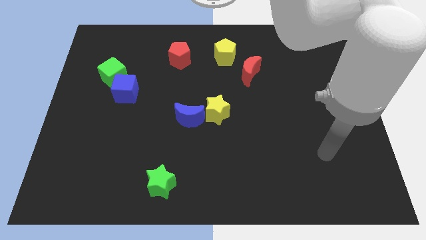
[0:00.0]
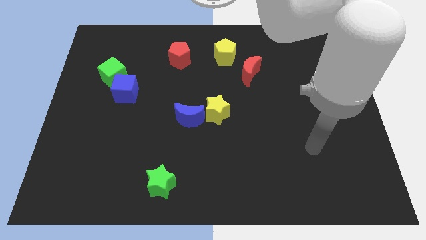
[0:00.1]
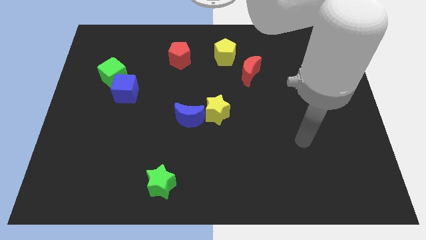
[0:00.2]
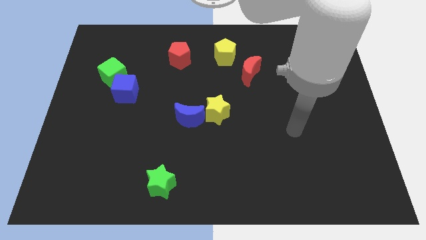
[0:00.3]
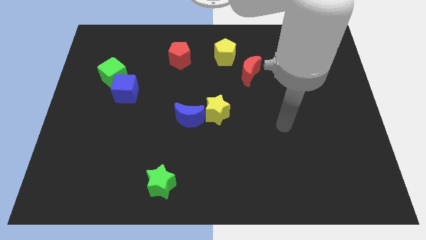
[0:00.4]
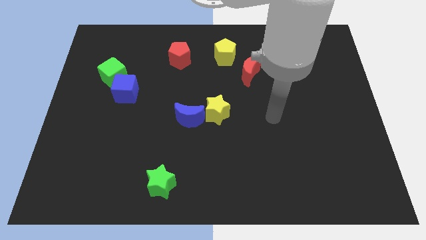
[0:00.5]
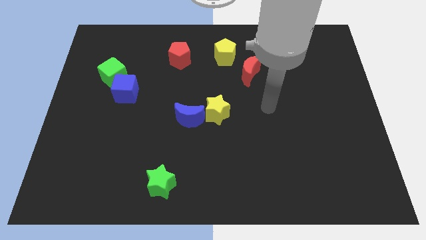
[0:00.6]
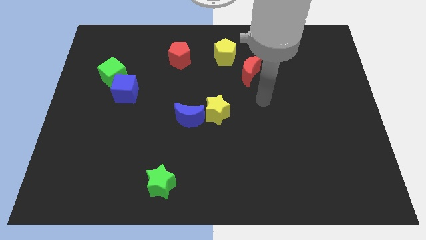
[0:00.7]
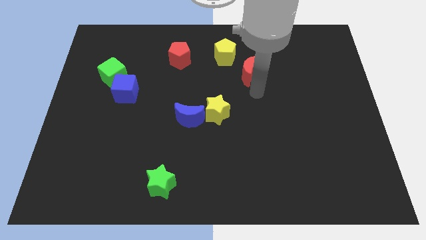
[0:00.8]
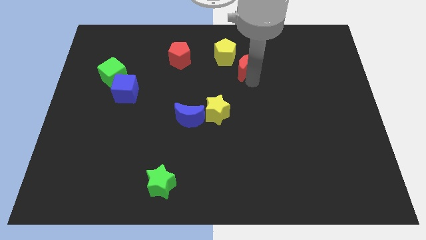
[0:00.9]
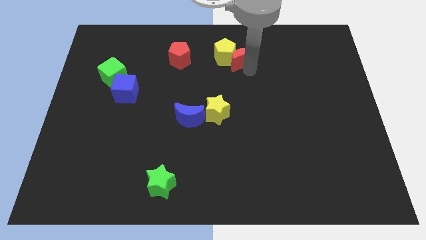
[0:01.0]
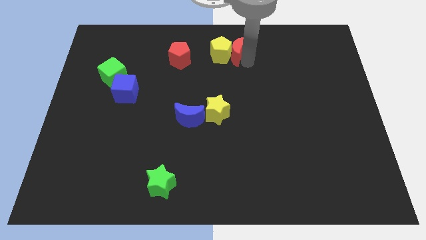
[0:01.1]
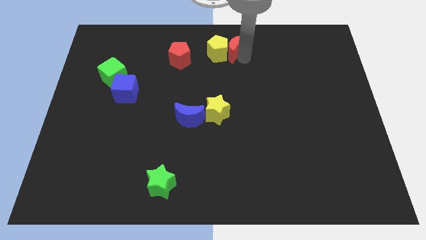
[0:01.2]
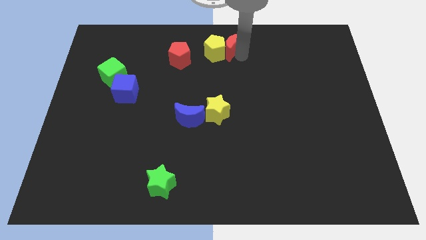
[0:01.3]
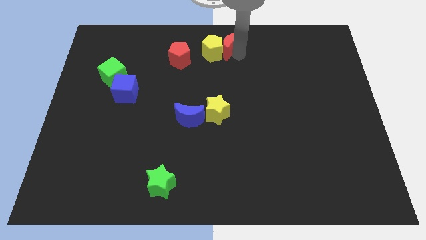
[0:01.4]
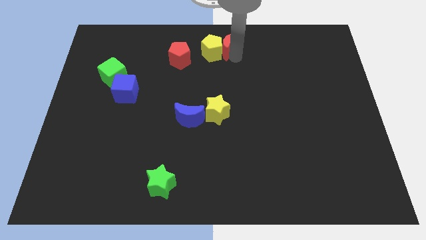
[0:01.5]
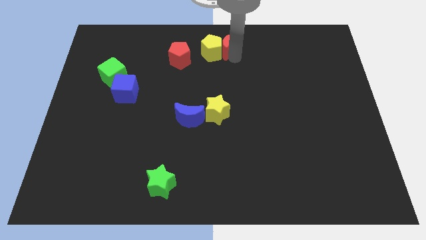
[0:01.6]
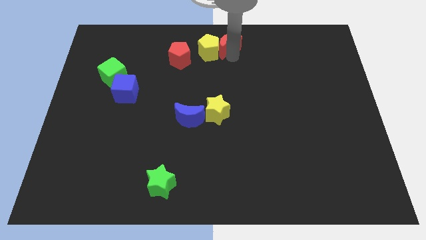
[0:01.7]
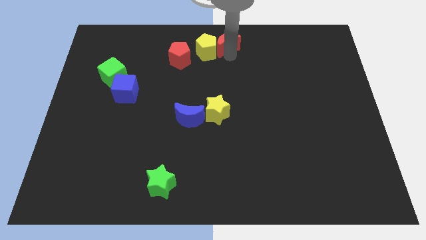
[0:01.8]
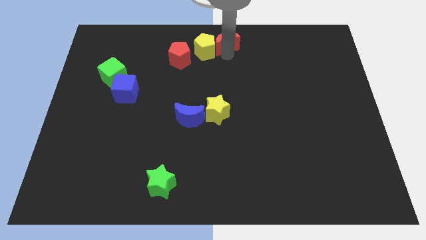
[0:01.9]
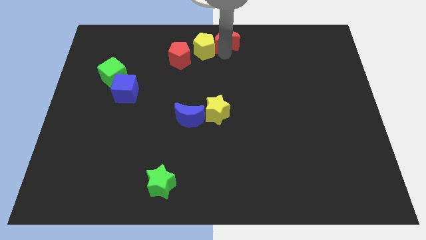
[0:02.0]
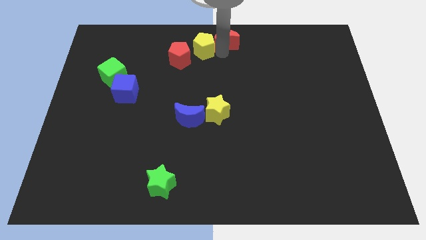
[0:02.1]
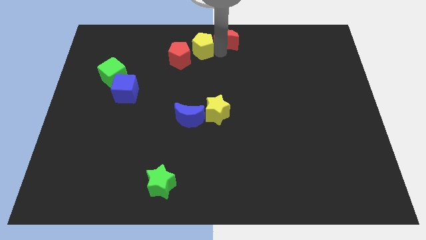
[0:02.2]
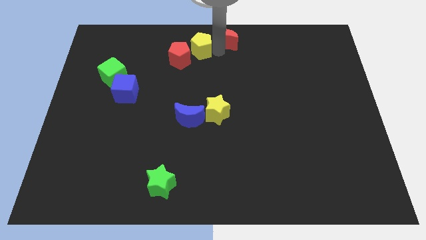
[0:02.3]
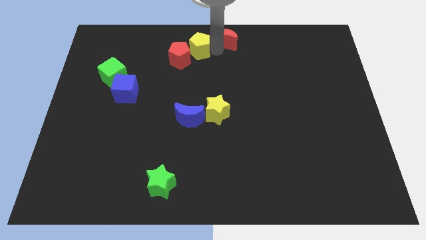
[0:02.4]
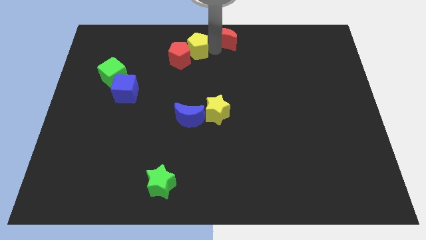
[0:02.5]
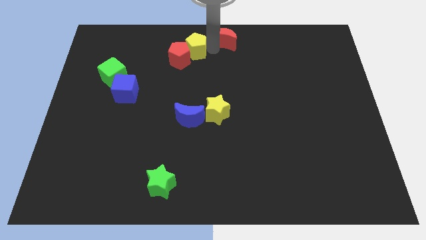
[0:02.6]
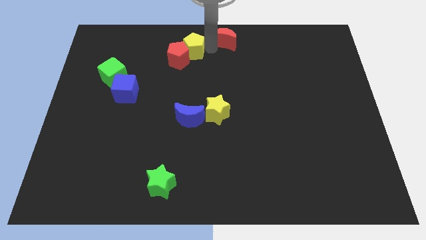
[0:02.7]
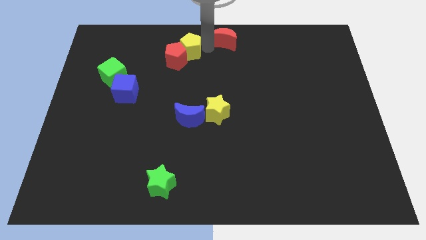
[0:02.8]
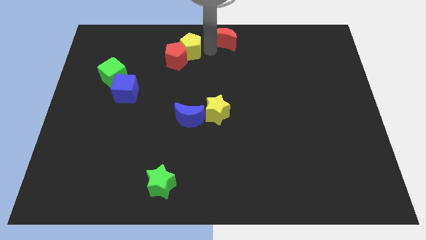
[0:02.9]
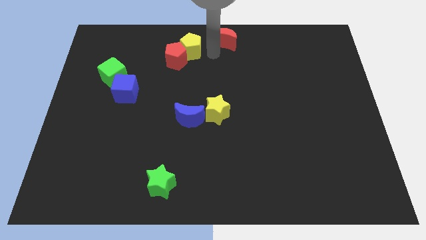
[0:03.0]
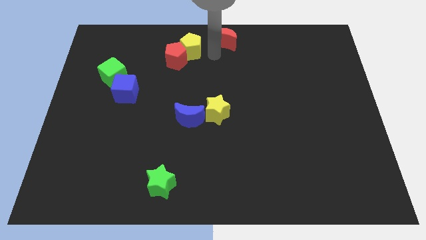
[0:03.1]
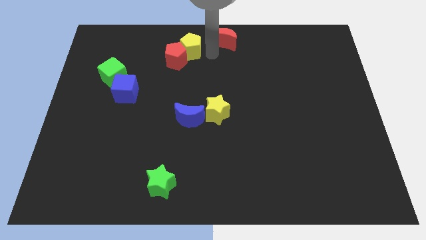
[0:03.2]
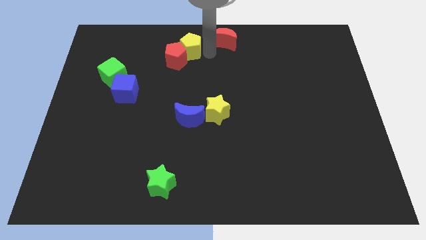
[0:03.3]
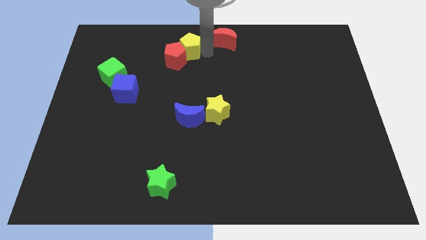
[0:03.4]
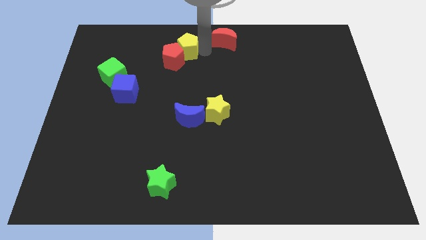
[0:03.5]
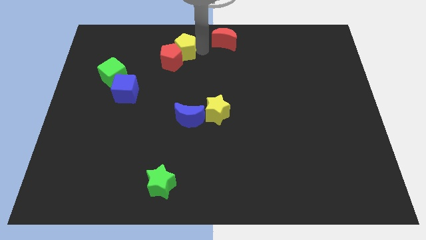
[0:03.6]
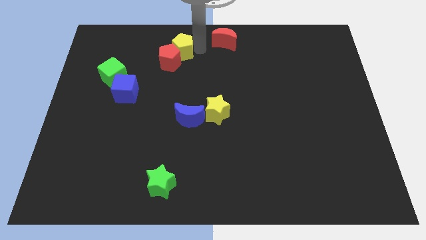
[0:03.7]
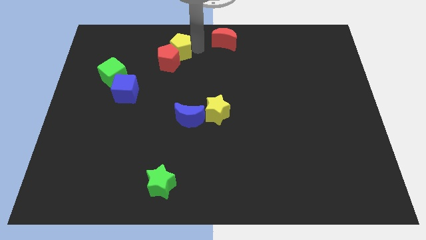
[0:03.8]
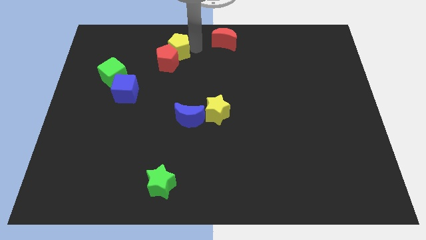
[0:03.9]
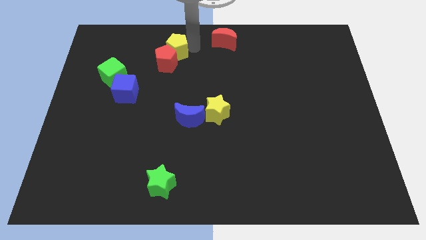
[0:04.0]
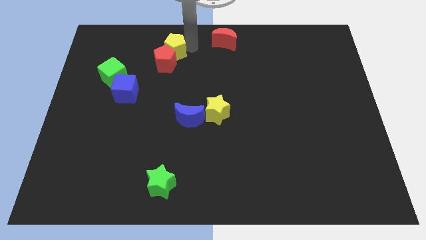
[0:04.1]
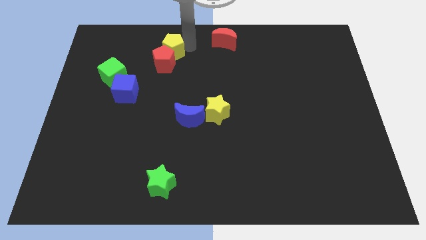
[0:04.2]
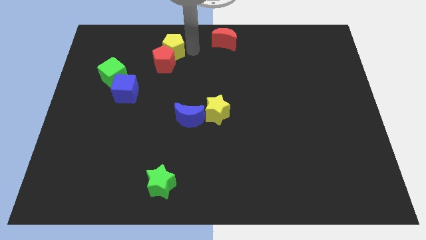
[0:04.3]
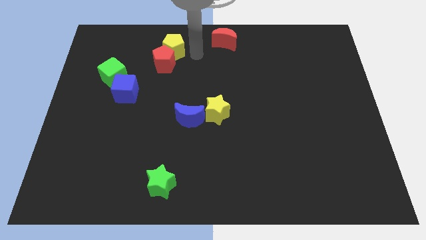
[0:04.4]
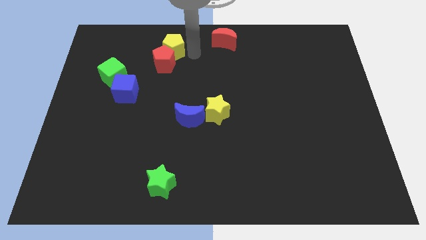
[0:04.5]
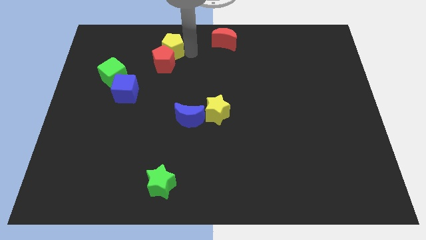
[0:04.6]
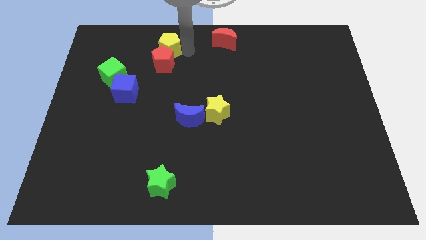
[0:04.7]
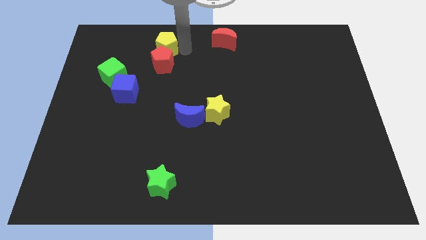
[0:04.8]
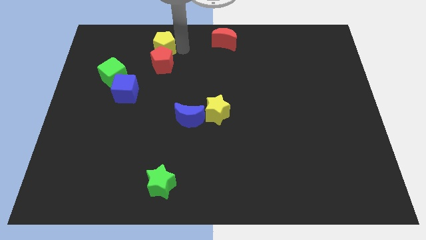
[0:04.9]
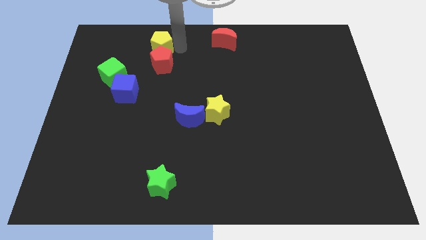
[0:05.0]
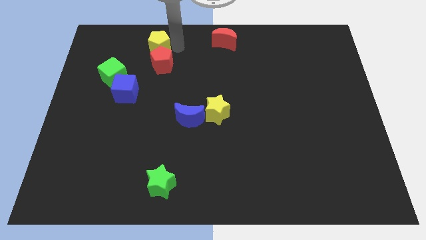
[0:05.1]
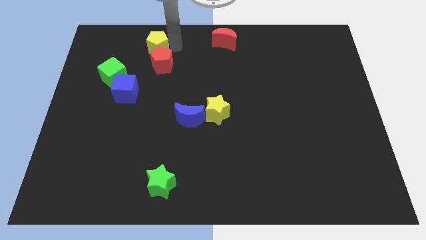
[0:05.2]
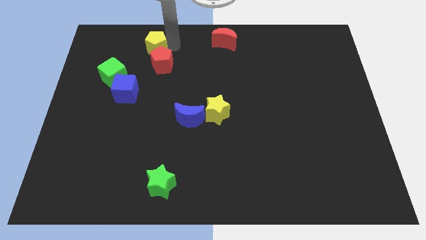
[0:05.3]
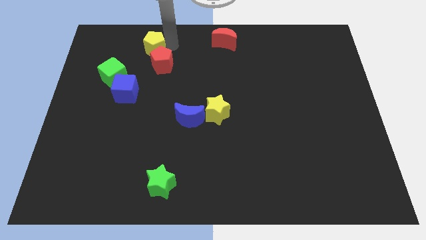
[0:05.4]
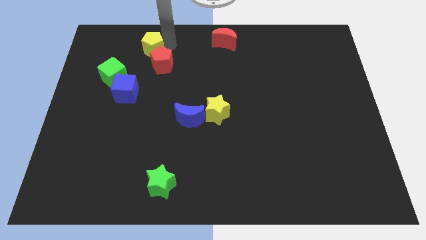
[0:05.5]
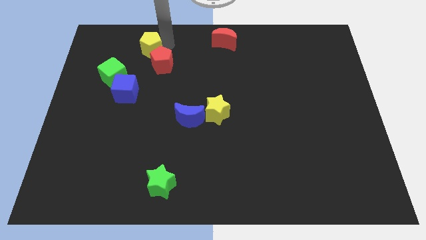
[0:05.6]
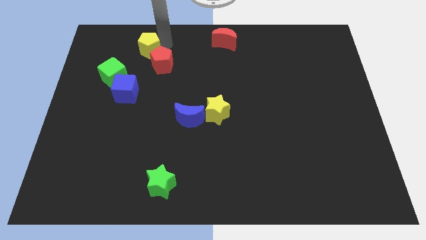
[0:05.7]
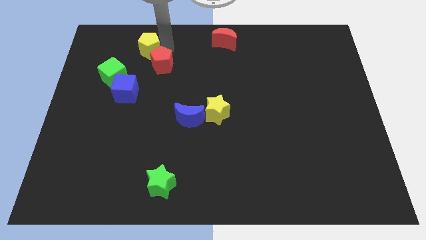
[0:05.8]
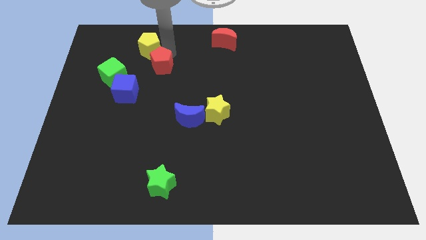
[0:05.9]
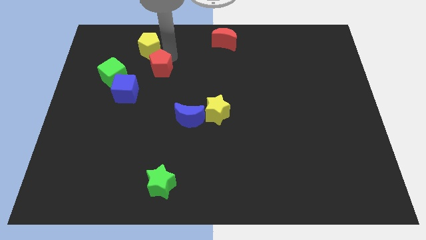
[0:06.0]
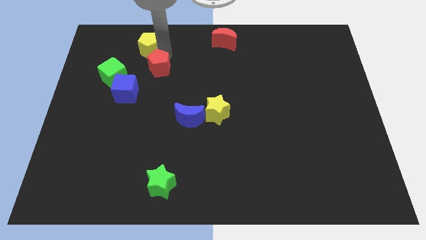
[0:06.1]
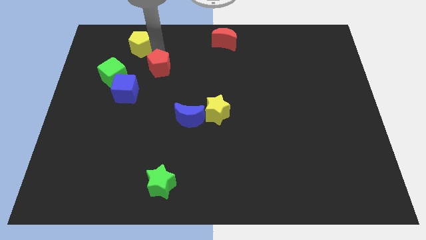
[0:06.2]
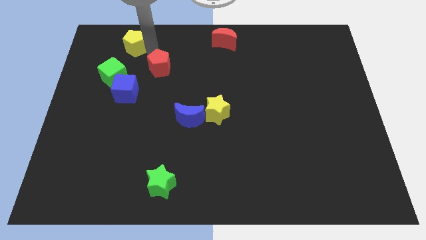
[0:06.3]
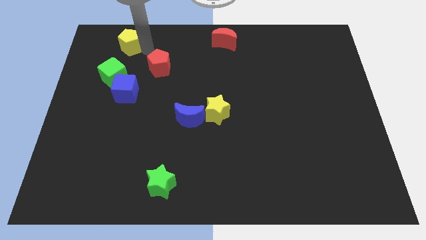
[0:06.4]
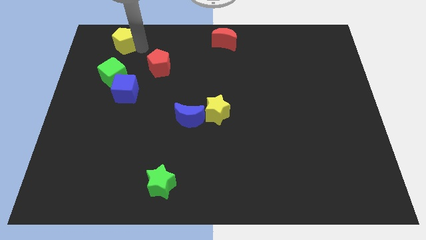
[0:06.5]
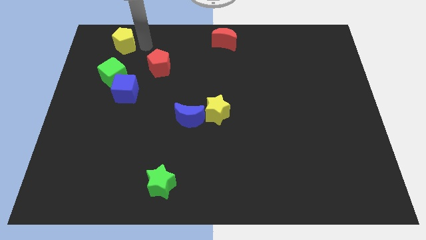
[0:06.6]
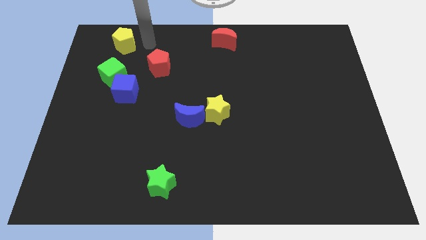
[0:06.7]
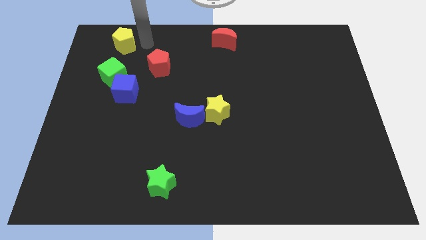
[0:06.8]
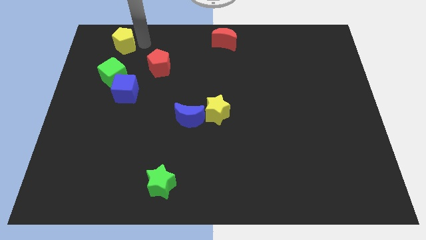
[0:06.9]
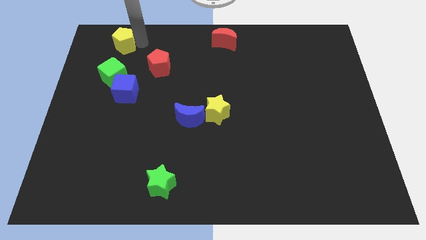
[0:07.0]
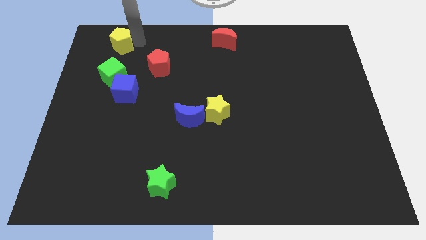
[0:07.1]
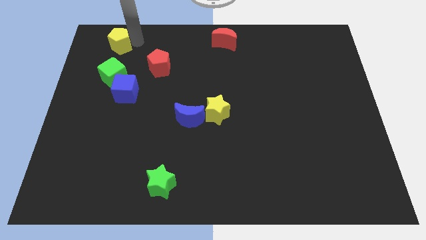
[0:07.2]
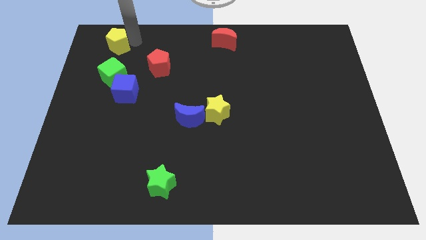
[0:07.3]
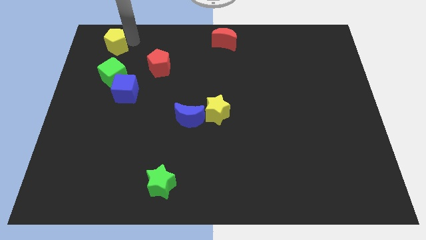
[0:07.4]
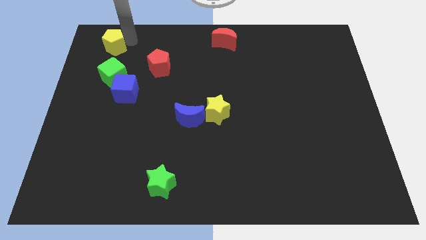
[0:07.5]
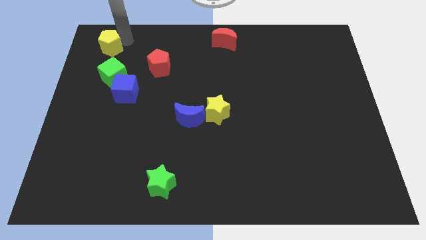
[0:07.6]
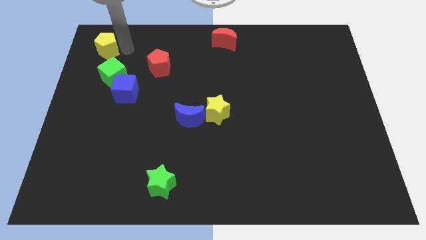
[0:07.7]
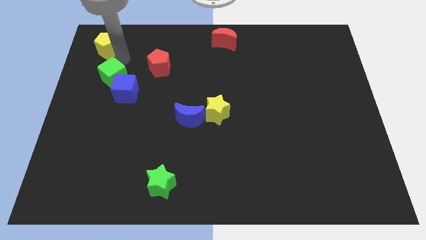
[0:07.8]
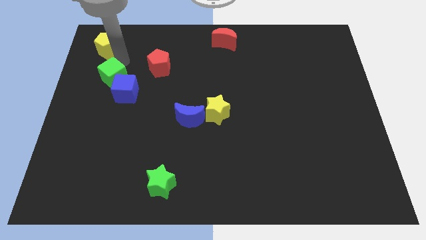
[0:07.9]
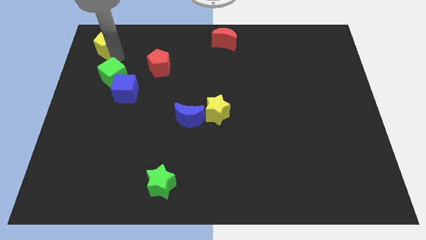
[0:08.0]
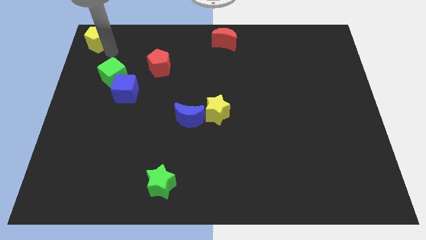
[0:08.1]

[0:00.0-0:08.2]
move the yellow pentagon to the top left of the board
